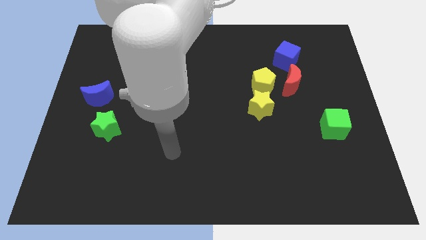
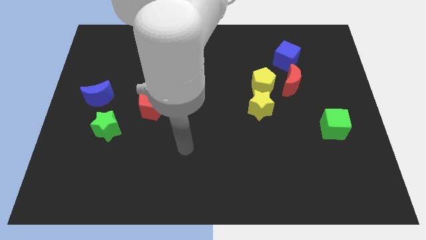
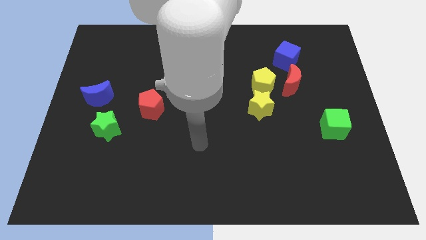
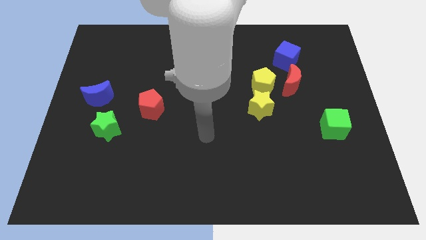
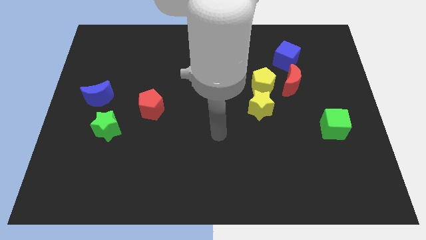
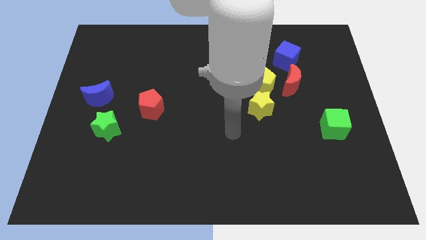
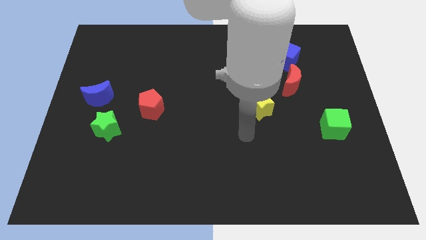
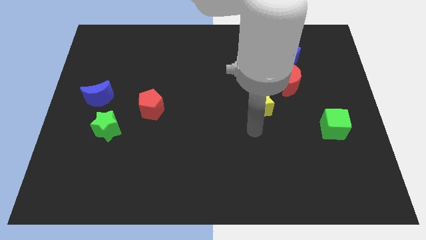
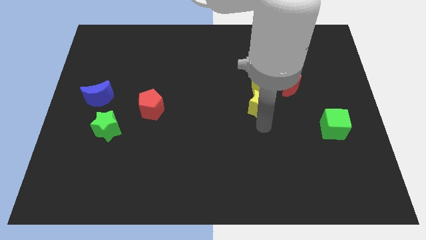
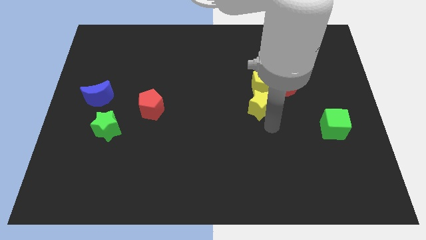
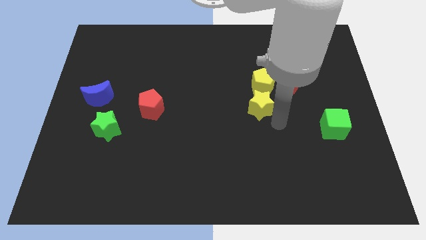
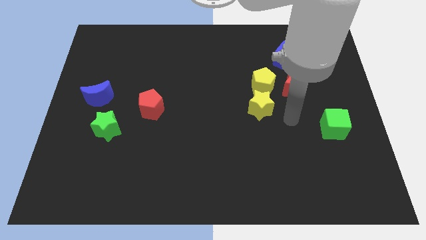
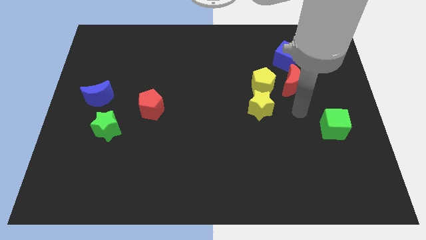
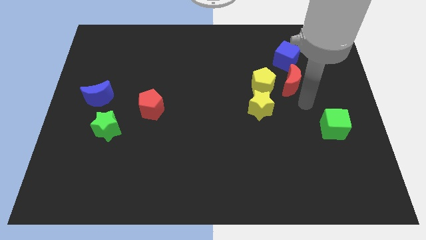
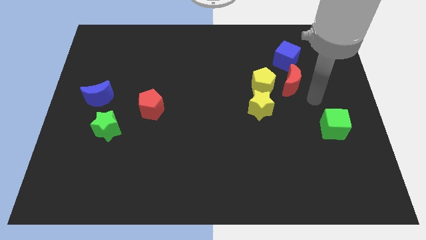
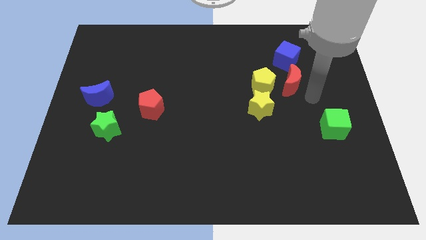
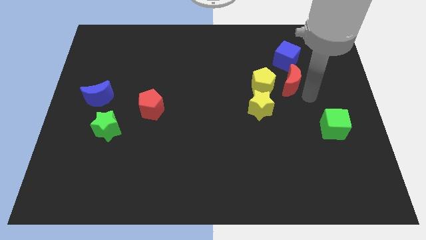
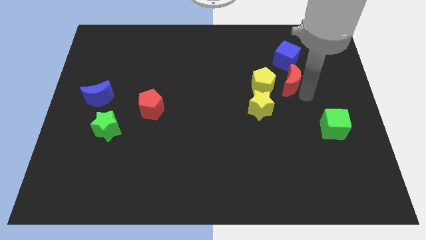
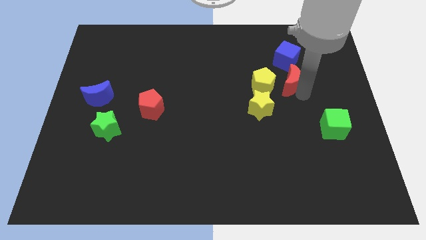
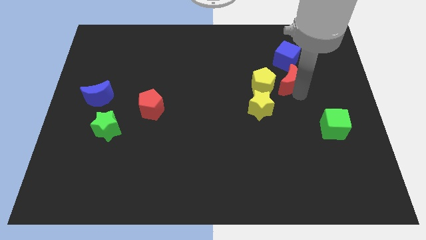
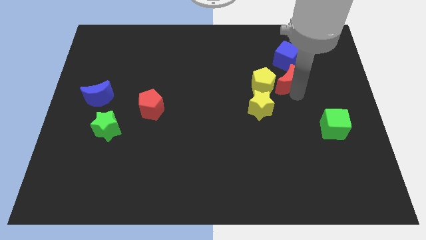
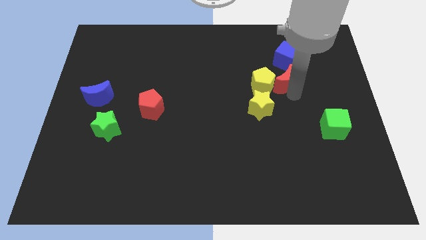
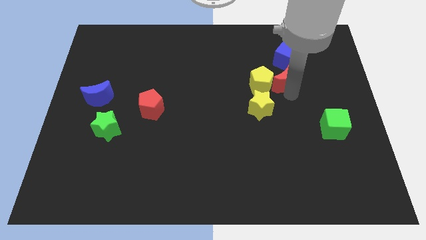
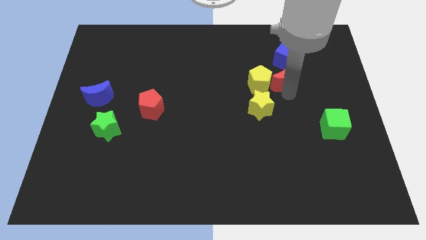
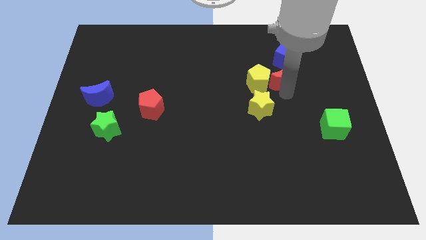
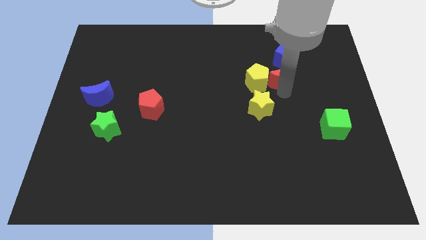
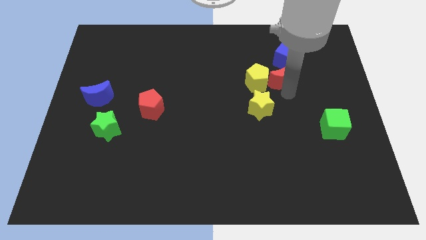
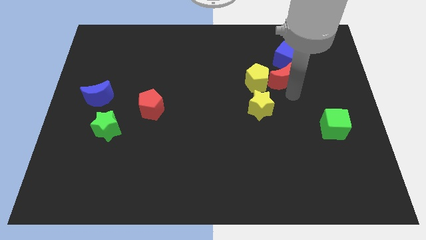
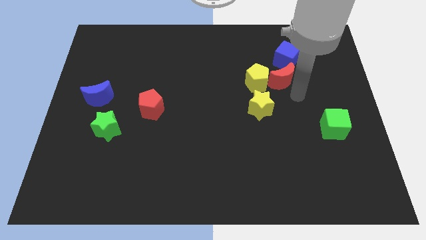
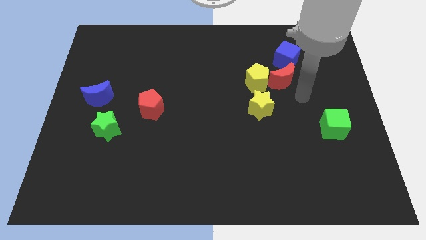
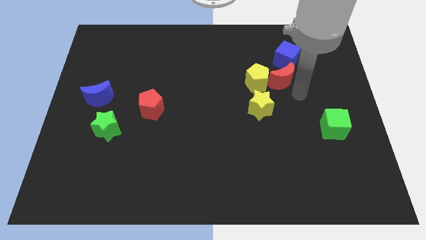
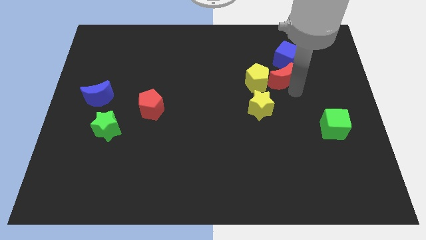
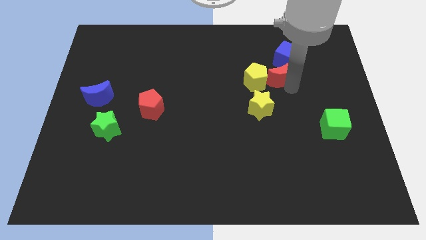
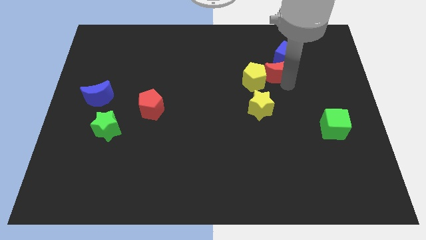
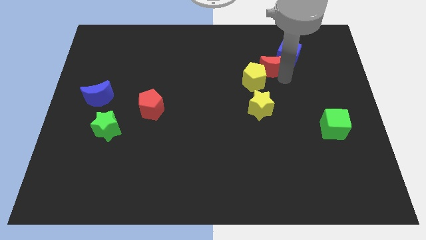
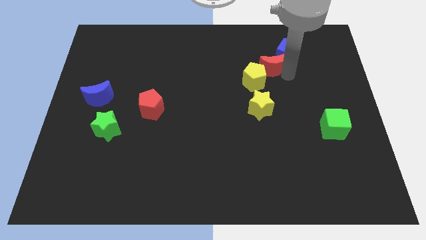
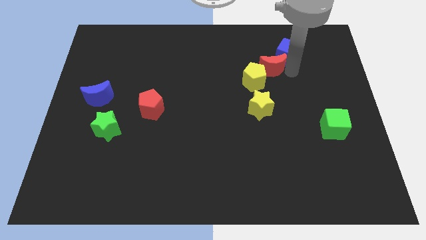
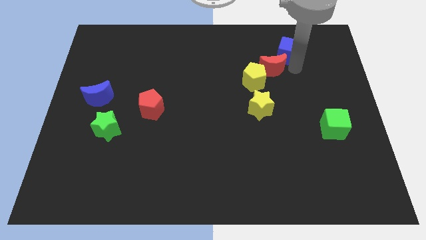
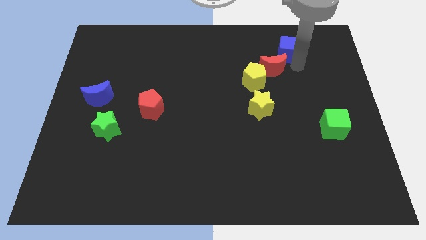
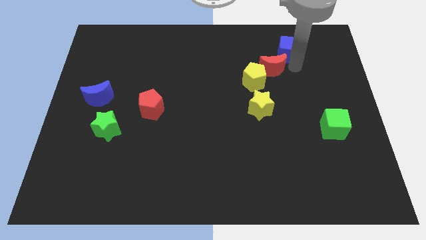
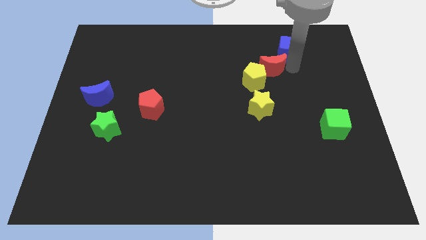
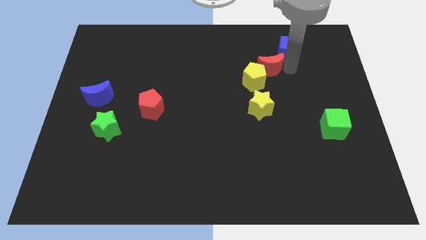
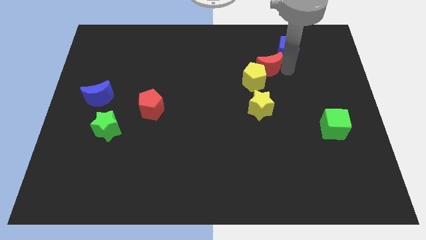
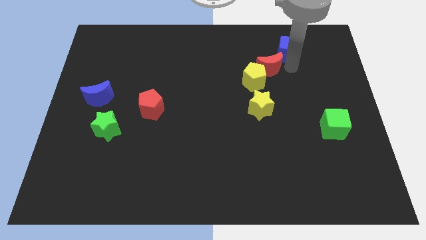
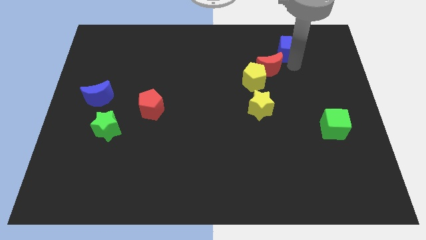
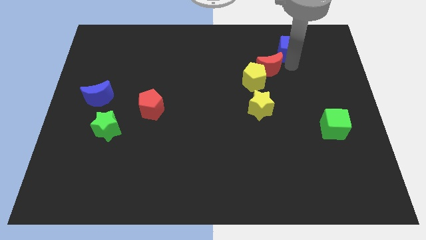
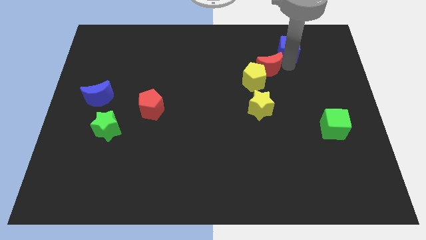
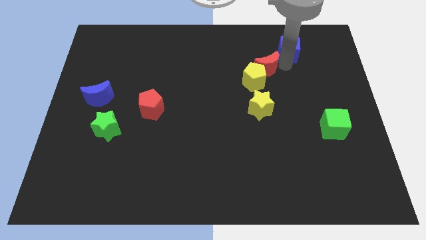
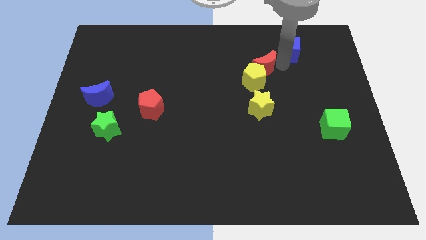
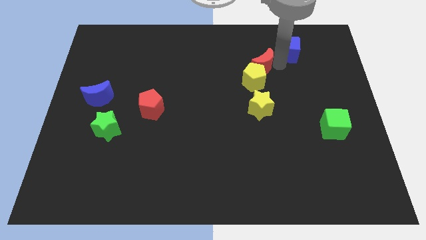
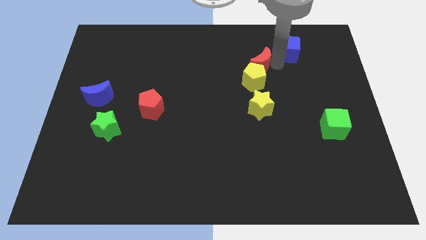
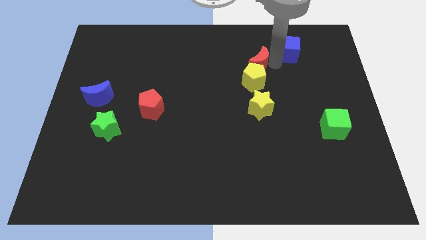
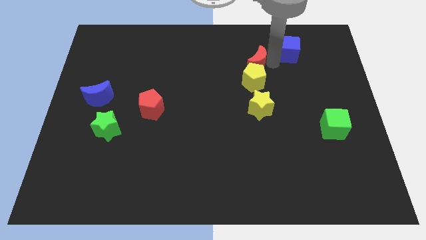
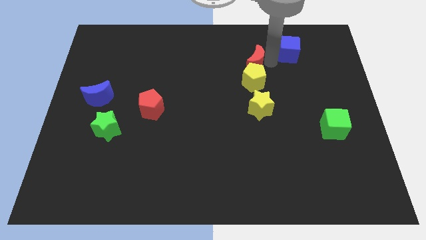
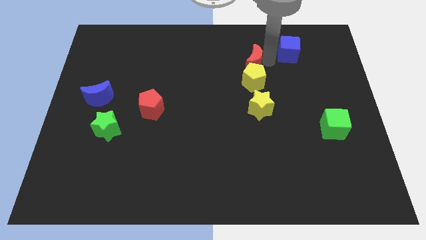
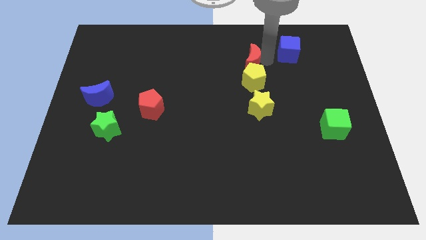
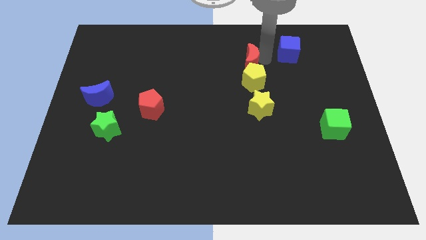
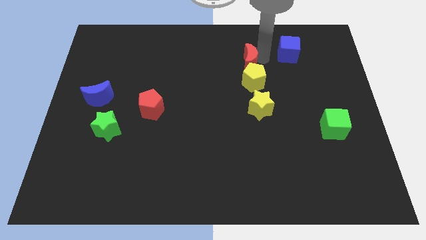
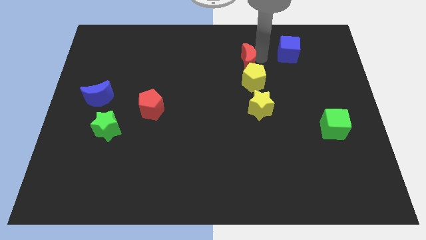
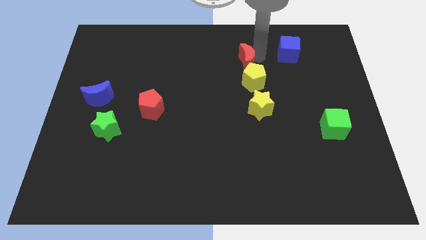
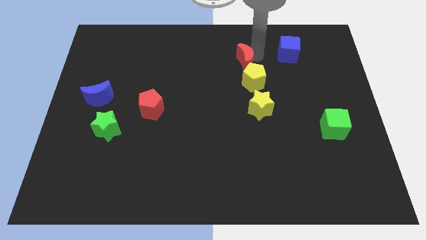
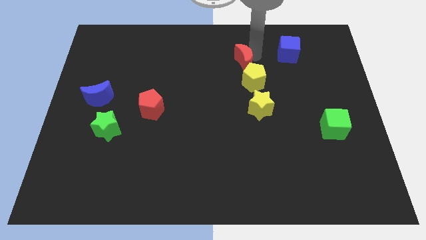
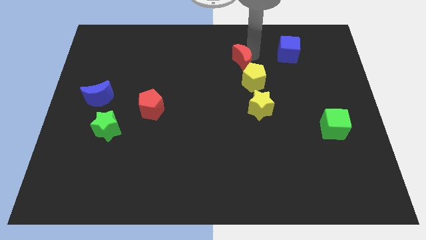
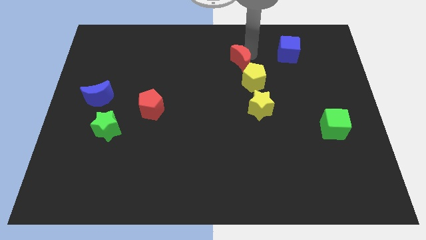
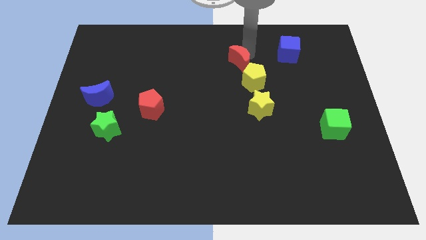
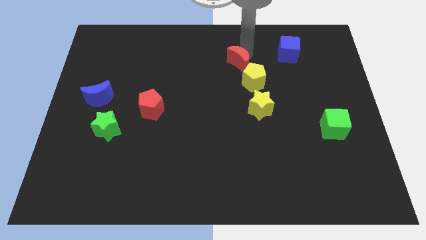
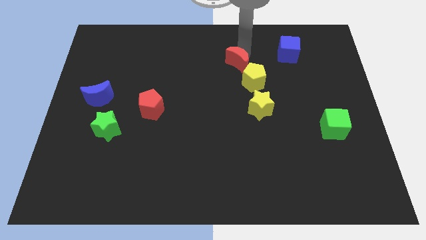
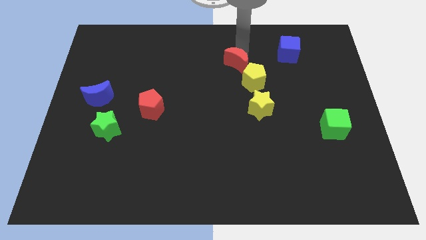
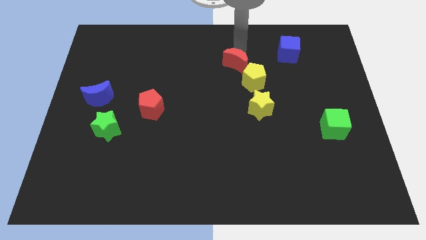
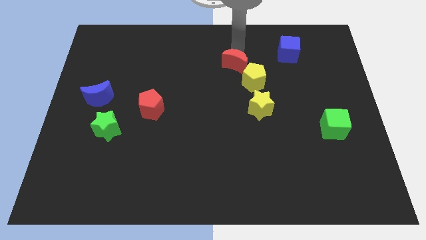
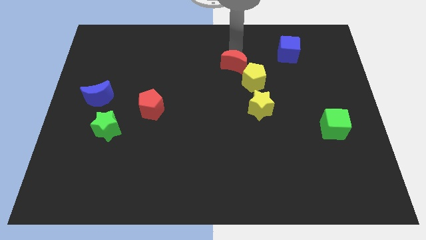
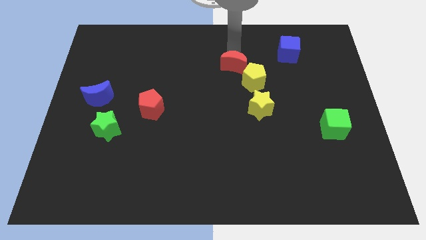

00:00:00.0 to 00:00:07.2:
move the red moon to the center
